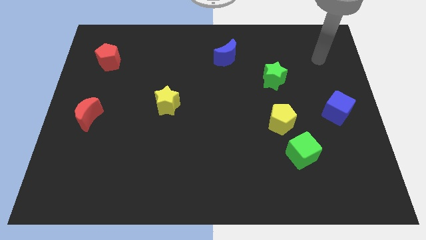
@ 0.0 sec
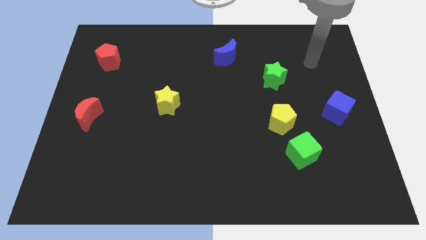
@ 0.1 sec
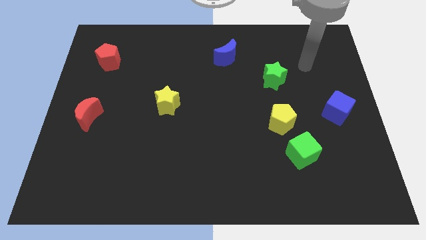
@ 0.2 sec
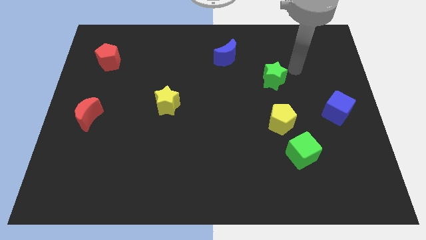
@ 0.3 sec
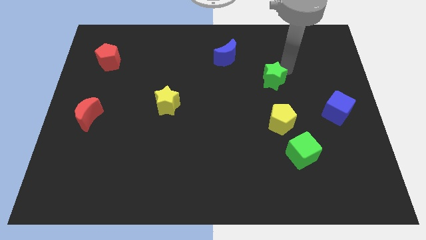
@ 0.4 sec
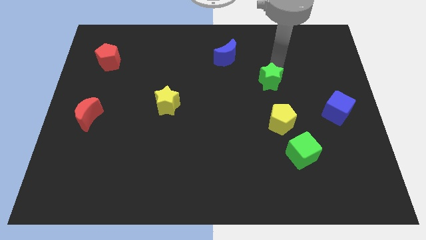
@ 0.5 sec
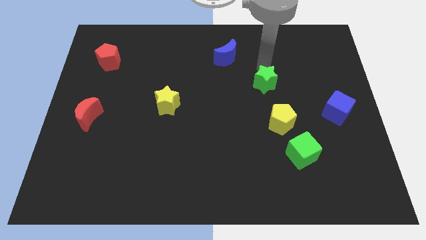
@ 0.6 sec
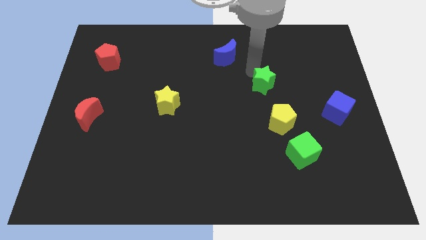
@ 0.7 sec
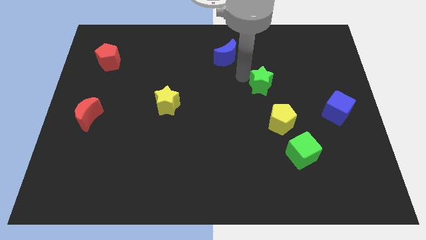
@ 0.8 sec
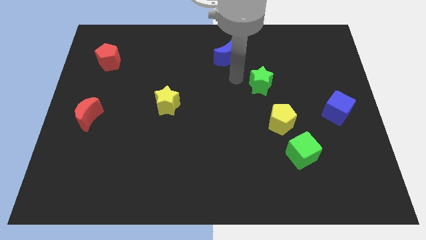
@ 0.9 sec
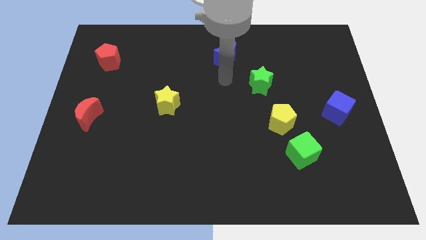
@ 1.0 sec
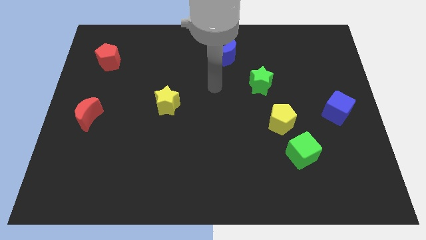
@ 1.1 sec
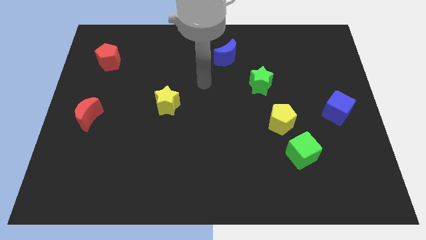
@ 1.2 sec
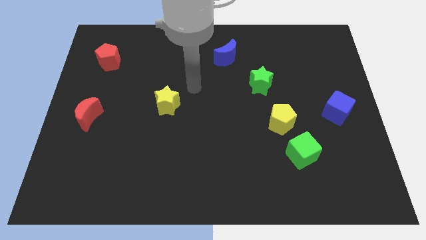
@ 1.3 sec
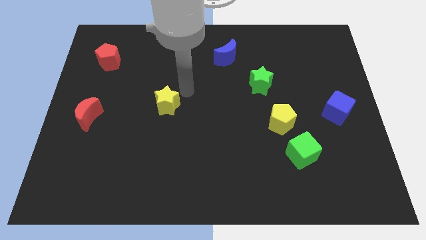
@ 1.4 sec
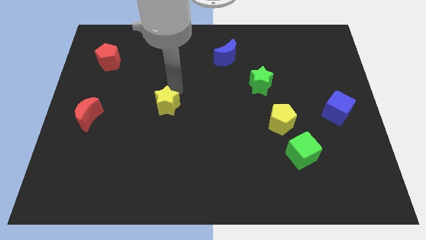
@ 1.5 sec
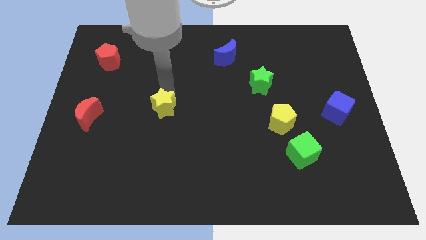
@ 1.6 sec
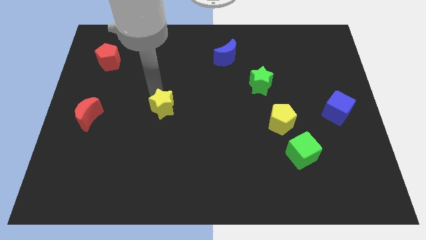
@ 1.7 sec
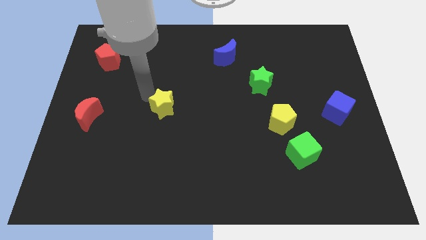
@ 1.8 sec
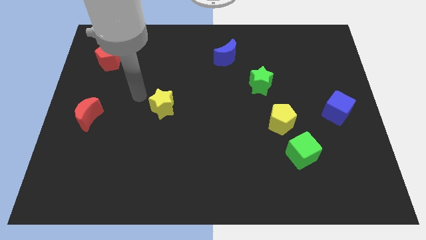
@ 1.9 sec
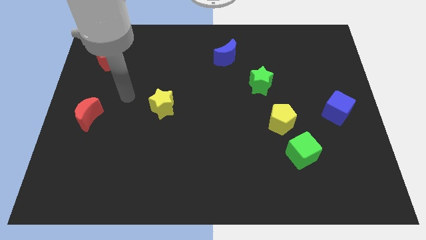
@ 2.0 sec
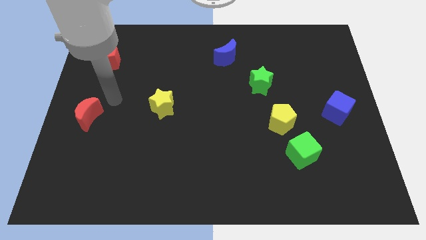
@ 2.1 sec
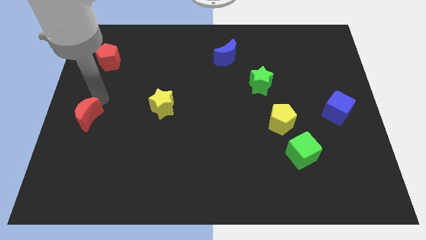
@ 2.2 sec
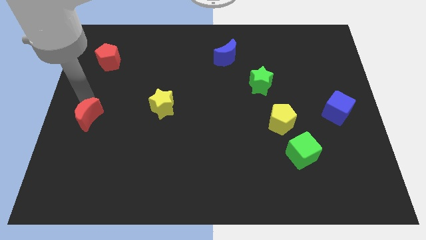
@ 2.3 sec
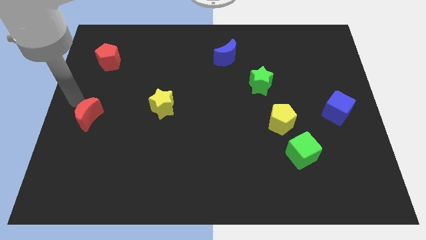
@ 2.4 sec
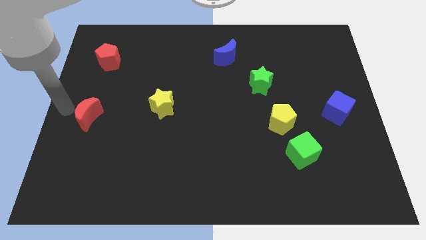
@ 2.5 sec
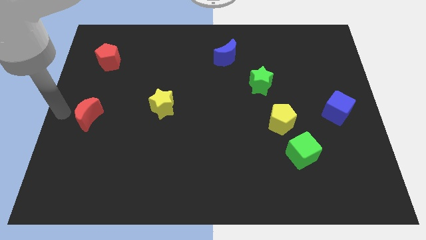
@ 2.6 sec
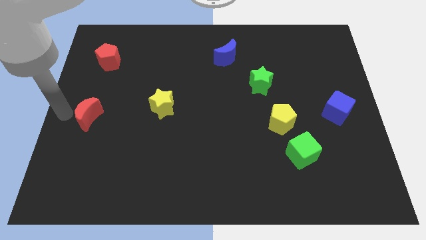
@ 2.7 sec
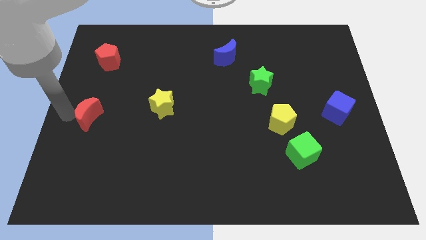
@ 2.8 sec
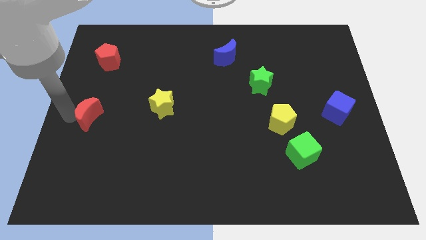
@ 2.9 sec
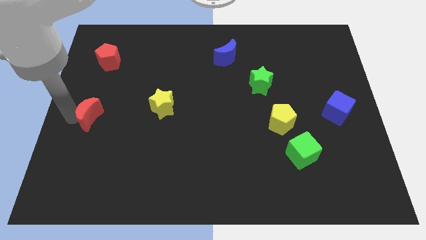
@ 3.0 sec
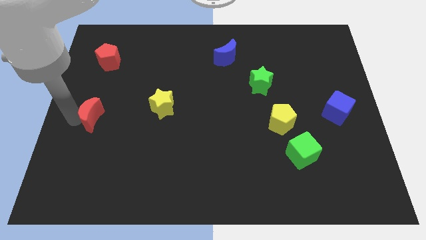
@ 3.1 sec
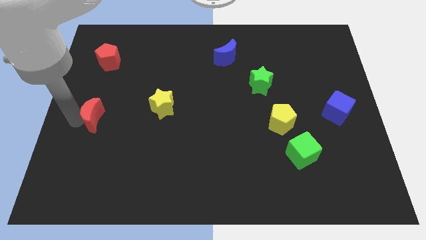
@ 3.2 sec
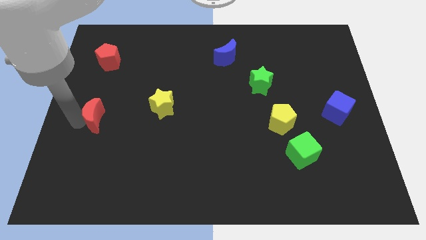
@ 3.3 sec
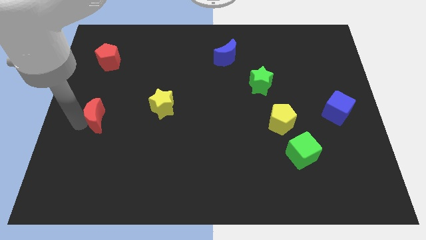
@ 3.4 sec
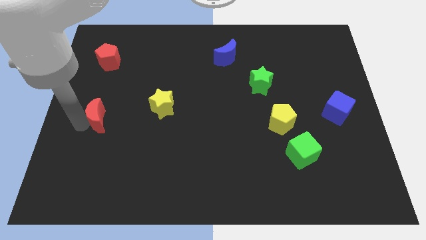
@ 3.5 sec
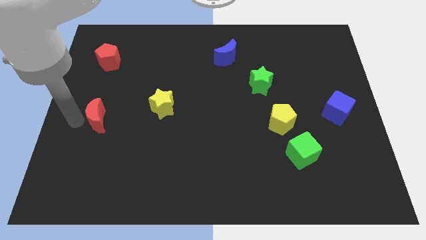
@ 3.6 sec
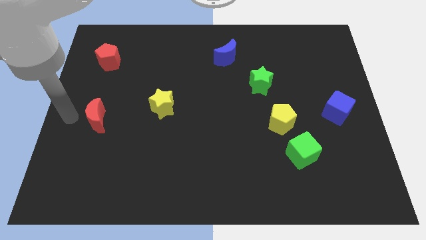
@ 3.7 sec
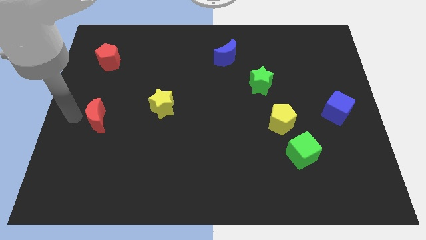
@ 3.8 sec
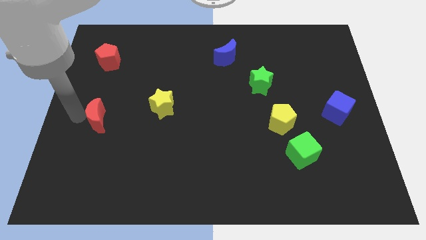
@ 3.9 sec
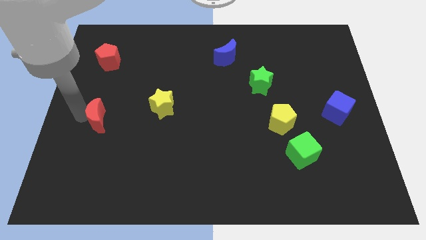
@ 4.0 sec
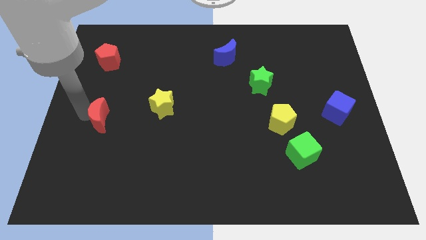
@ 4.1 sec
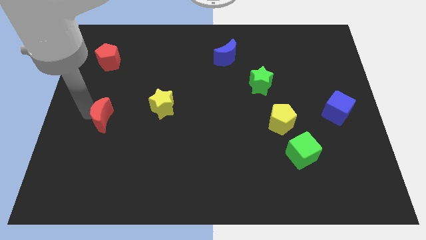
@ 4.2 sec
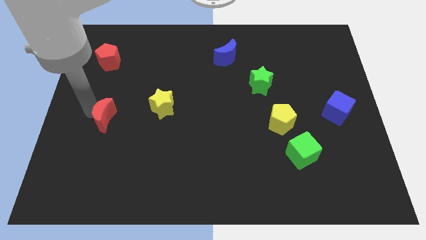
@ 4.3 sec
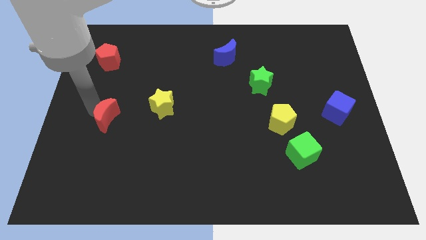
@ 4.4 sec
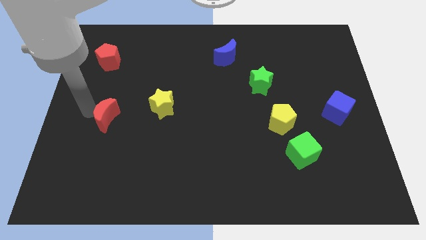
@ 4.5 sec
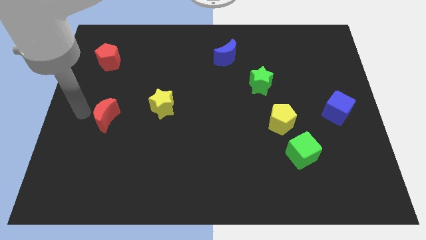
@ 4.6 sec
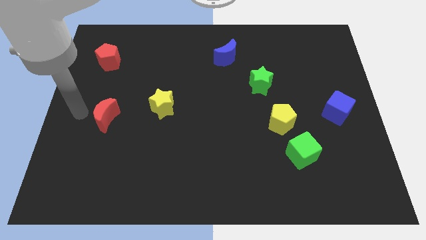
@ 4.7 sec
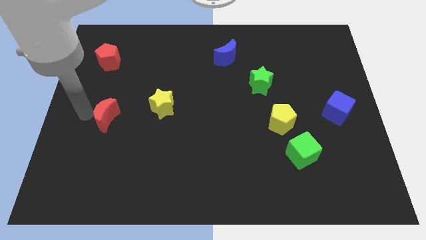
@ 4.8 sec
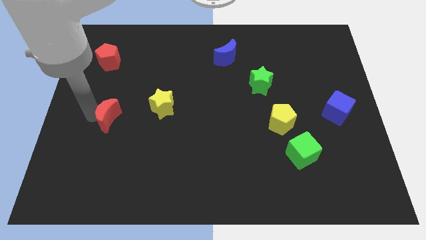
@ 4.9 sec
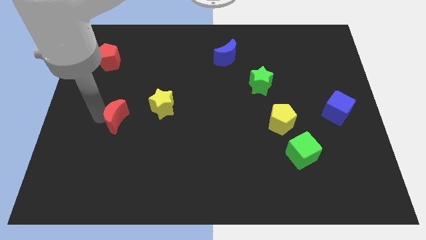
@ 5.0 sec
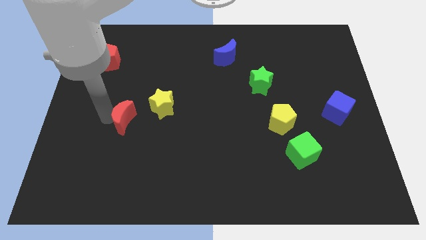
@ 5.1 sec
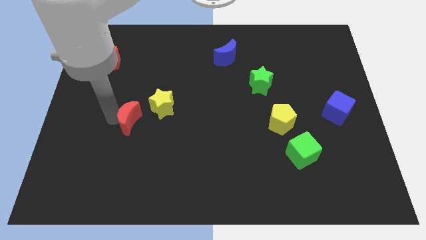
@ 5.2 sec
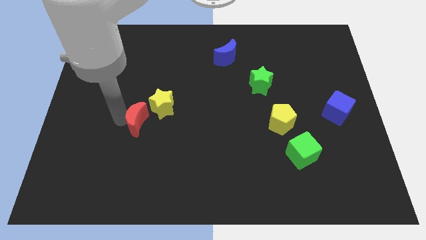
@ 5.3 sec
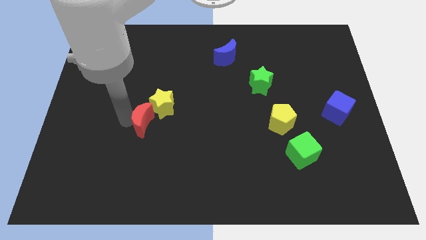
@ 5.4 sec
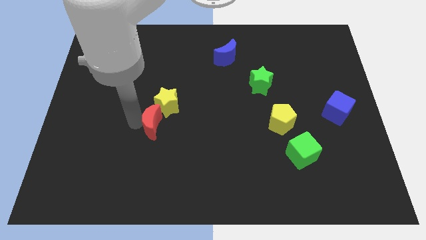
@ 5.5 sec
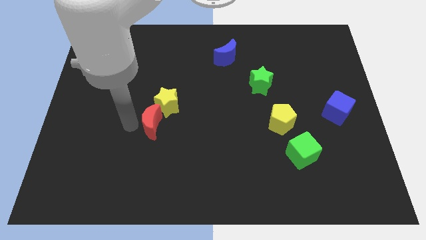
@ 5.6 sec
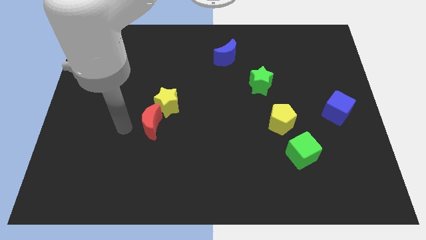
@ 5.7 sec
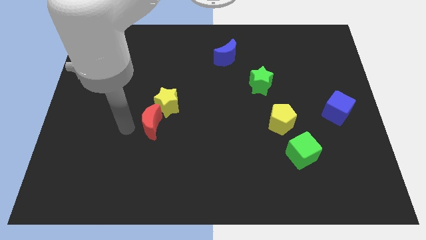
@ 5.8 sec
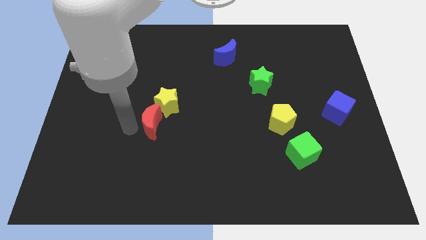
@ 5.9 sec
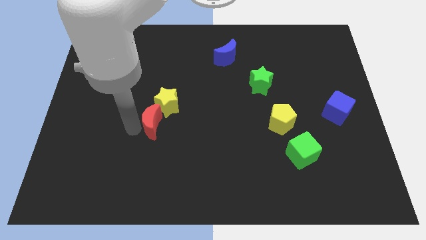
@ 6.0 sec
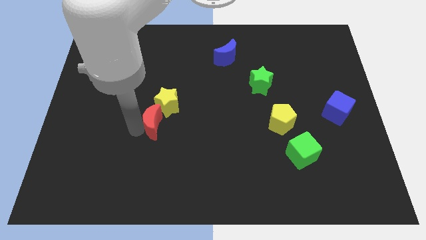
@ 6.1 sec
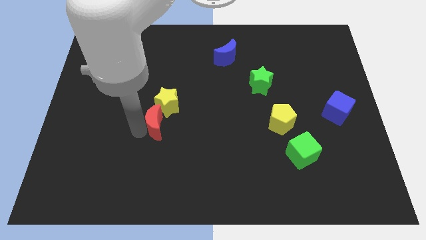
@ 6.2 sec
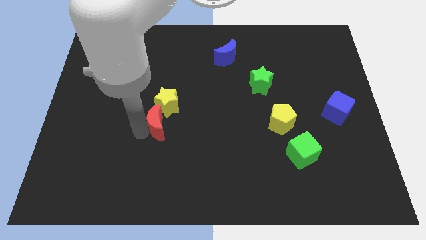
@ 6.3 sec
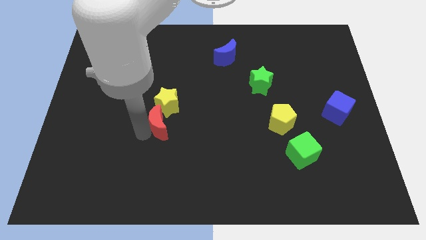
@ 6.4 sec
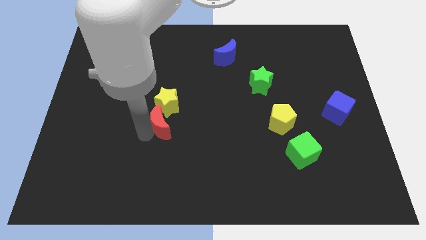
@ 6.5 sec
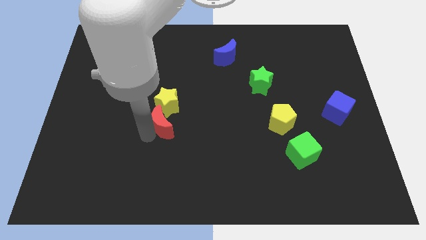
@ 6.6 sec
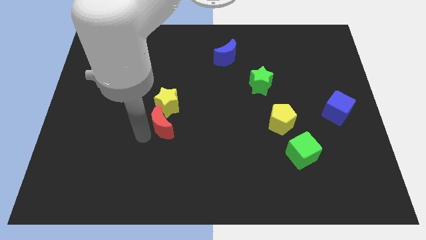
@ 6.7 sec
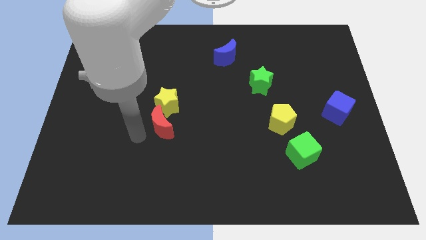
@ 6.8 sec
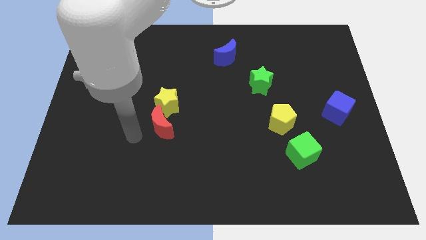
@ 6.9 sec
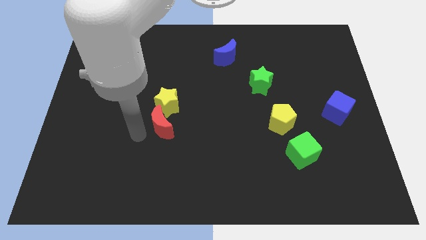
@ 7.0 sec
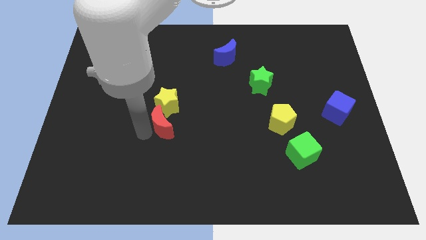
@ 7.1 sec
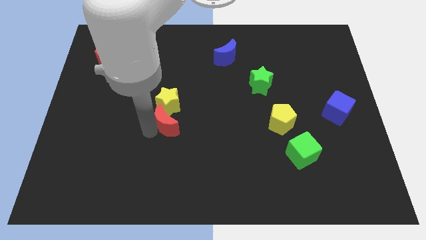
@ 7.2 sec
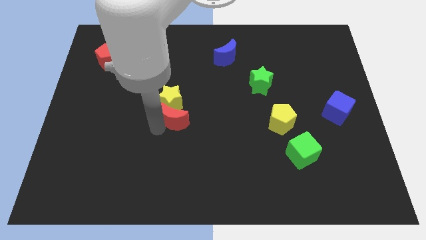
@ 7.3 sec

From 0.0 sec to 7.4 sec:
move the red moon to the right

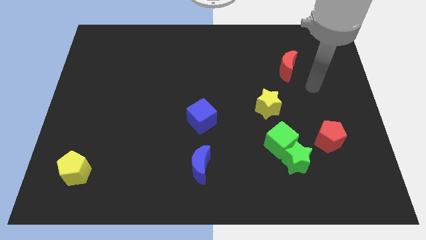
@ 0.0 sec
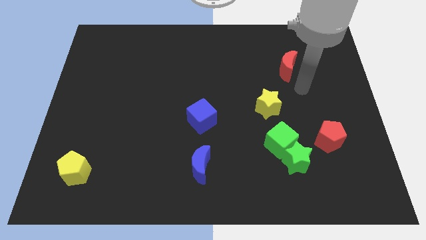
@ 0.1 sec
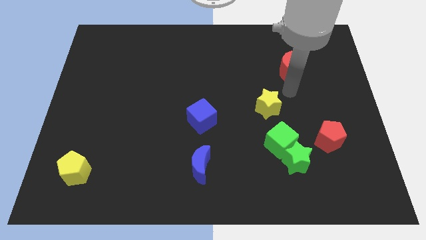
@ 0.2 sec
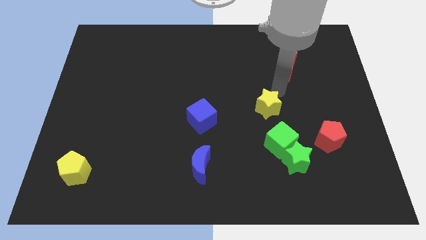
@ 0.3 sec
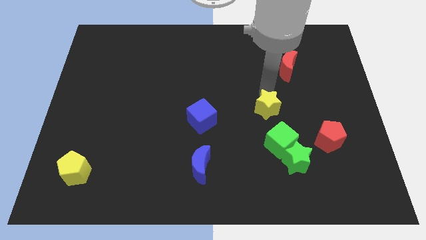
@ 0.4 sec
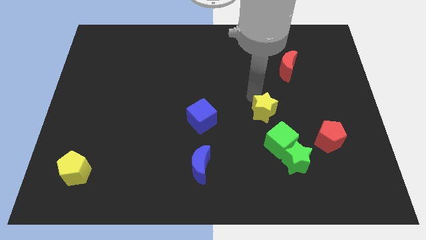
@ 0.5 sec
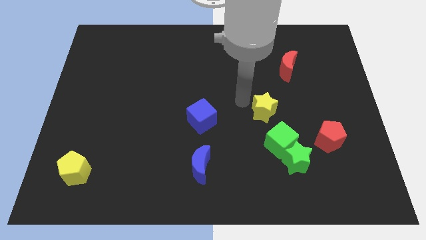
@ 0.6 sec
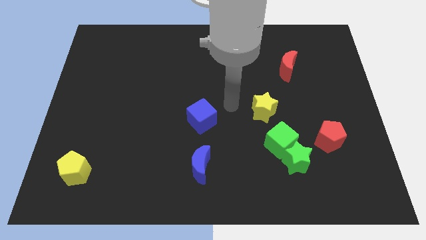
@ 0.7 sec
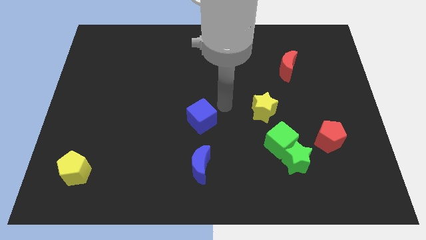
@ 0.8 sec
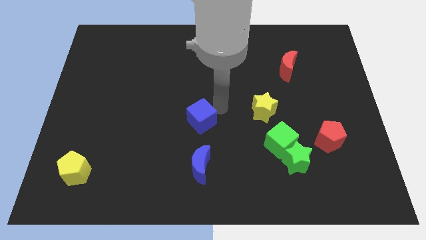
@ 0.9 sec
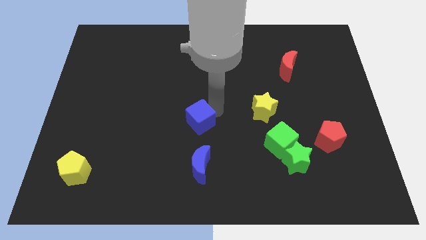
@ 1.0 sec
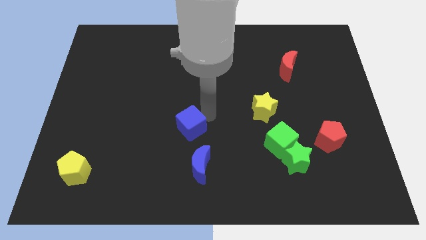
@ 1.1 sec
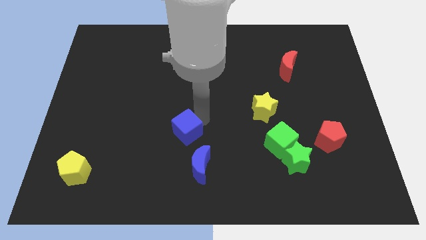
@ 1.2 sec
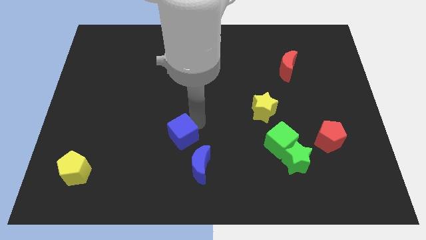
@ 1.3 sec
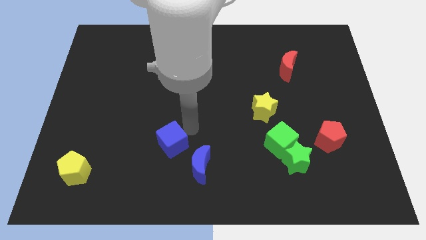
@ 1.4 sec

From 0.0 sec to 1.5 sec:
slightly slide the blue cube diagonally down and left
